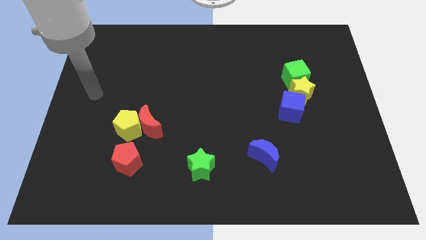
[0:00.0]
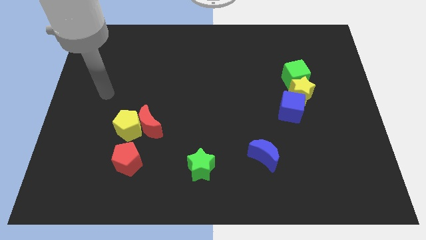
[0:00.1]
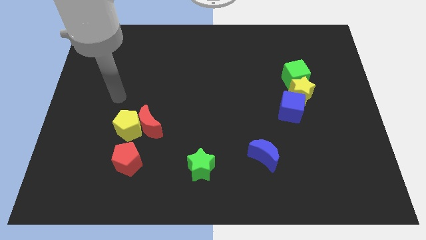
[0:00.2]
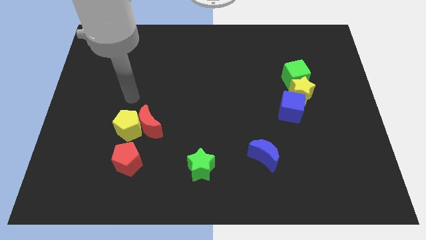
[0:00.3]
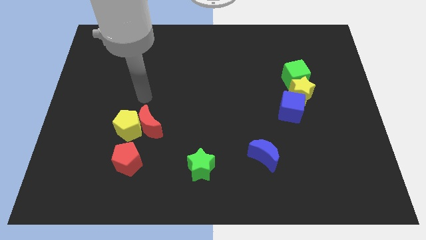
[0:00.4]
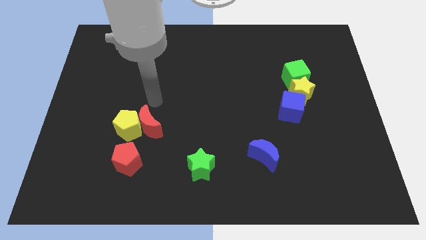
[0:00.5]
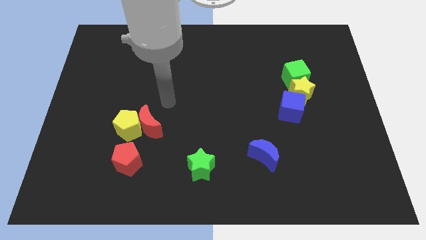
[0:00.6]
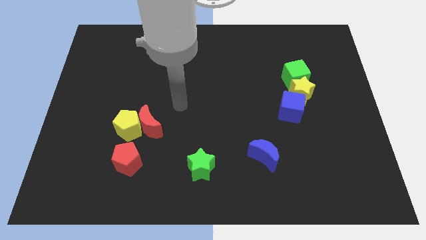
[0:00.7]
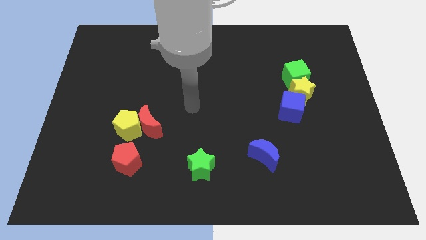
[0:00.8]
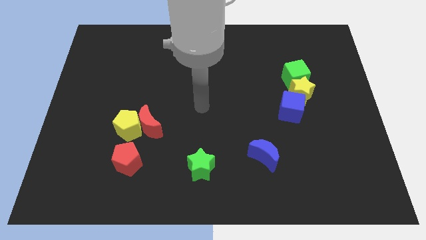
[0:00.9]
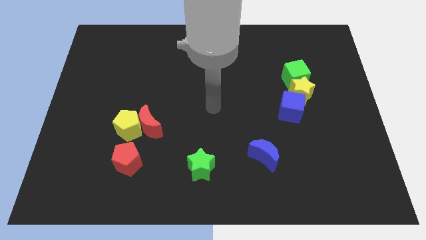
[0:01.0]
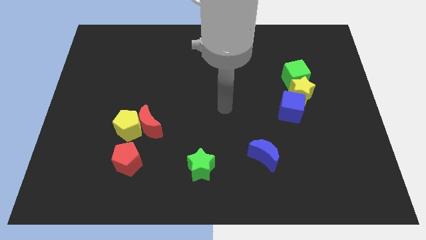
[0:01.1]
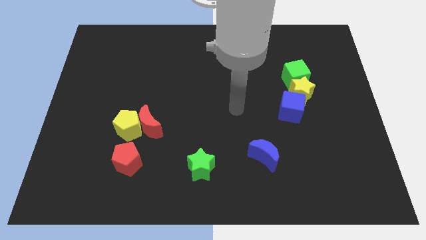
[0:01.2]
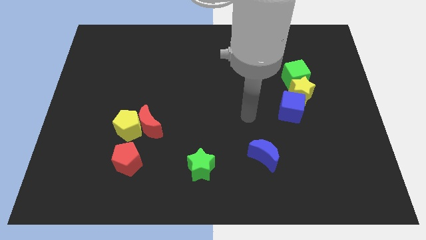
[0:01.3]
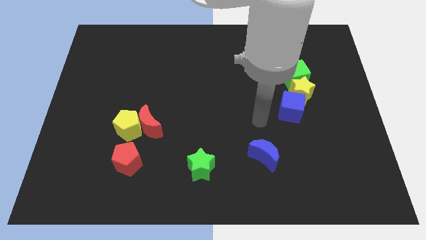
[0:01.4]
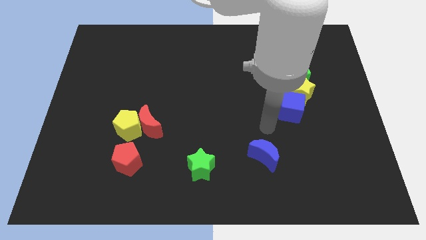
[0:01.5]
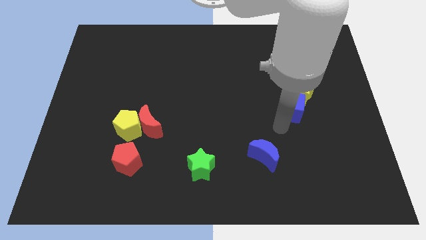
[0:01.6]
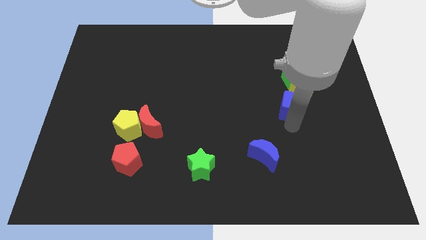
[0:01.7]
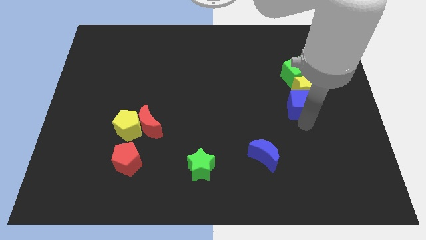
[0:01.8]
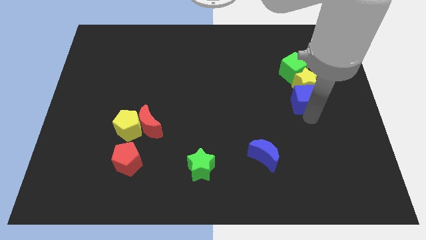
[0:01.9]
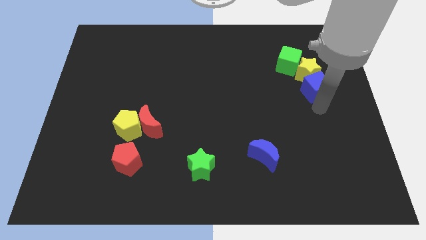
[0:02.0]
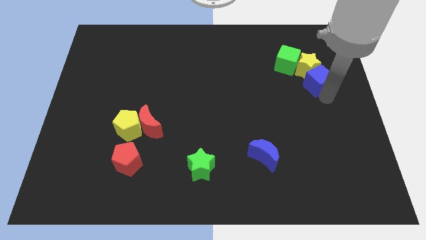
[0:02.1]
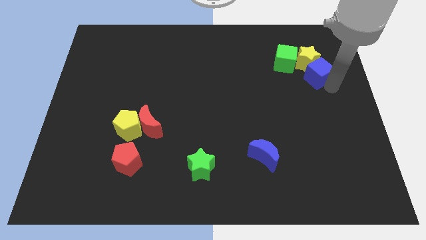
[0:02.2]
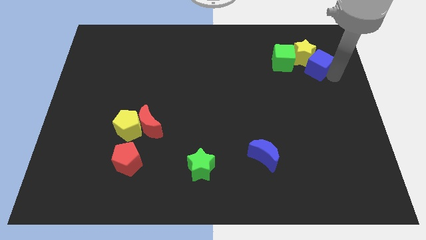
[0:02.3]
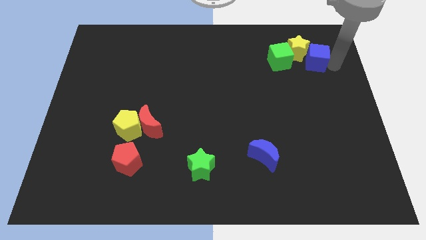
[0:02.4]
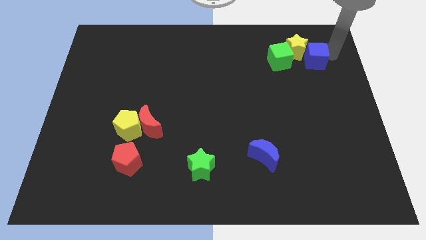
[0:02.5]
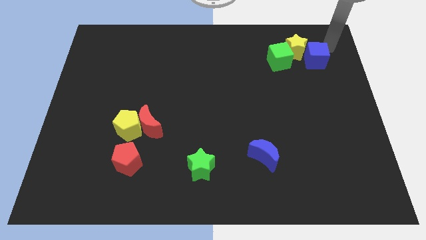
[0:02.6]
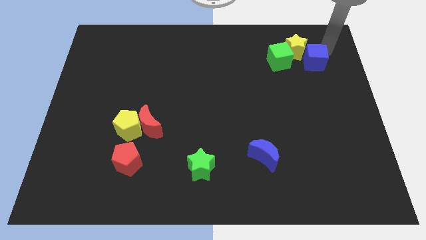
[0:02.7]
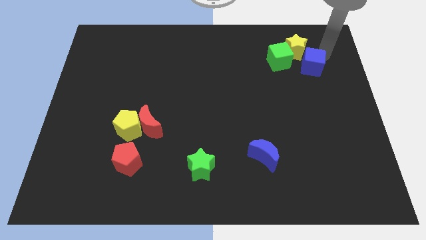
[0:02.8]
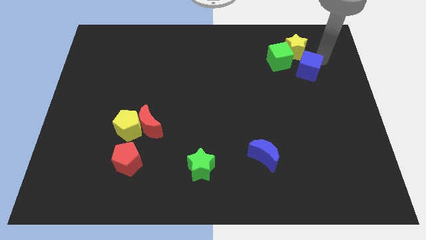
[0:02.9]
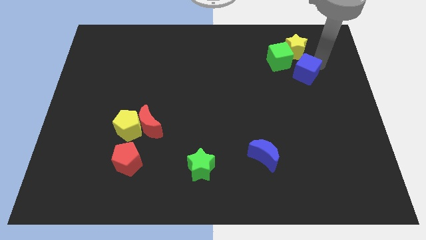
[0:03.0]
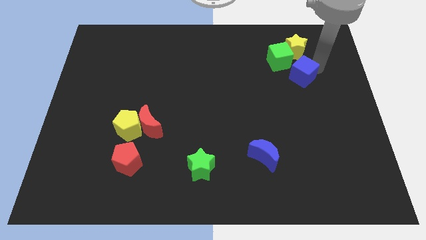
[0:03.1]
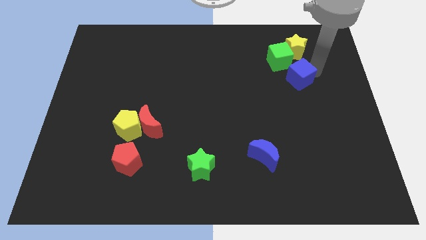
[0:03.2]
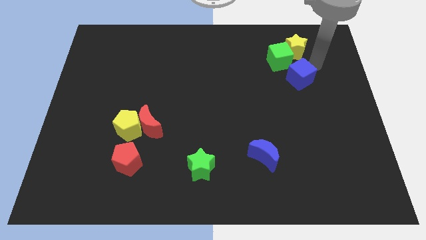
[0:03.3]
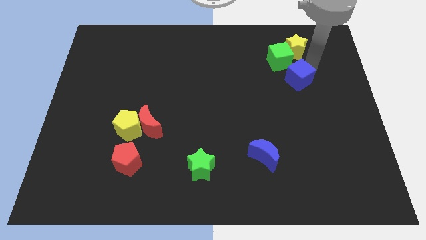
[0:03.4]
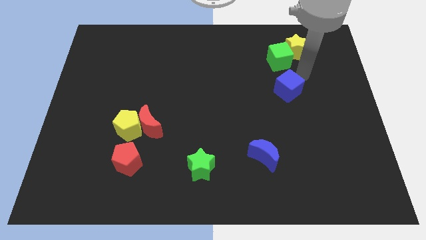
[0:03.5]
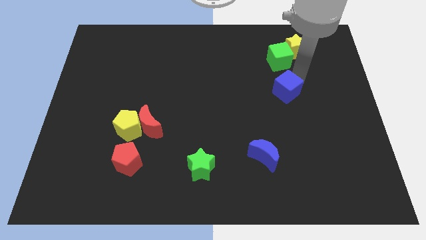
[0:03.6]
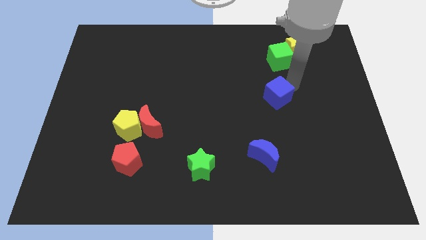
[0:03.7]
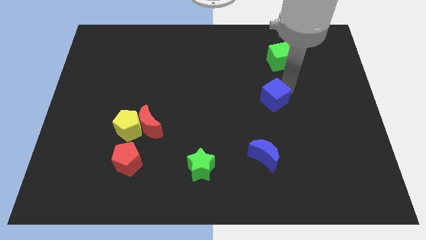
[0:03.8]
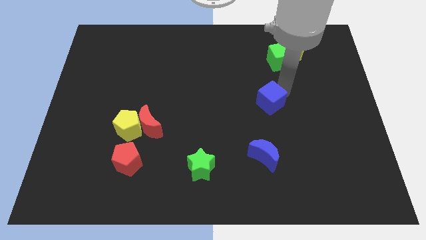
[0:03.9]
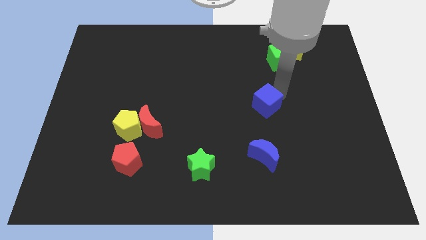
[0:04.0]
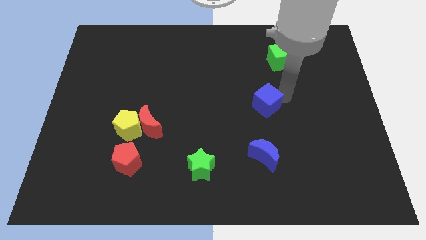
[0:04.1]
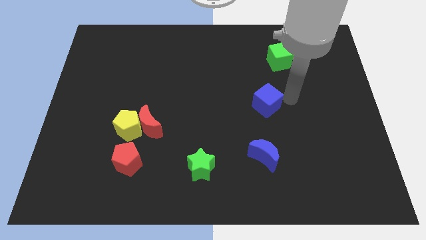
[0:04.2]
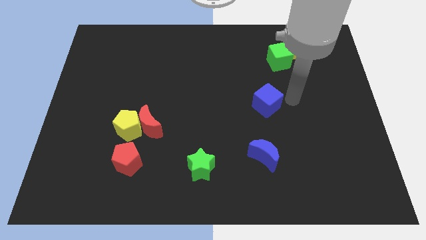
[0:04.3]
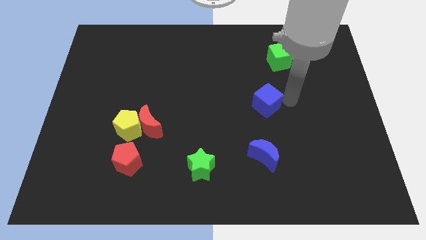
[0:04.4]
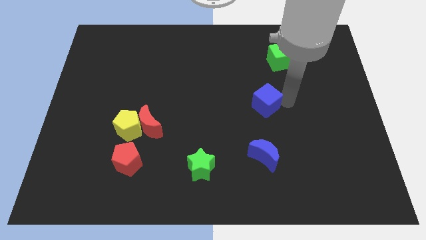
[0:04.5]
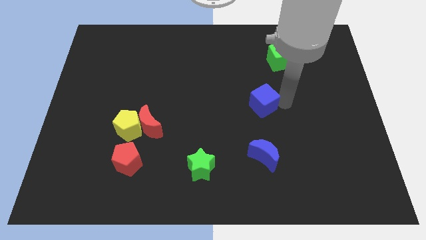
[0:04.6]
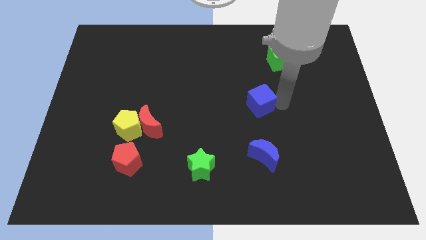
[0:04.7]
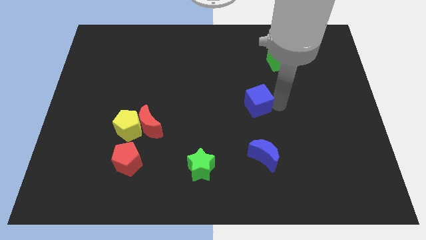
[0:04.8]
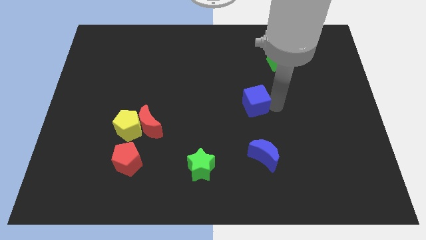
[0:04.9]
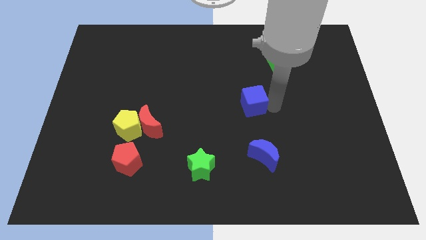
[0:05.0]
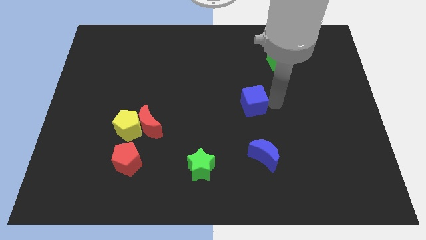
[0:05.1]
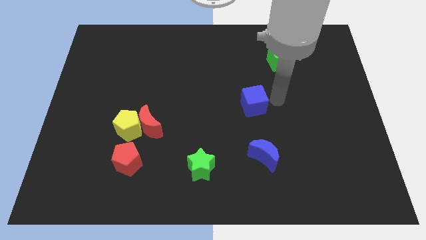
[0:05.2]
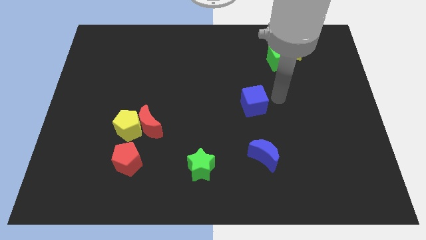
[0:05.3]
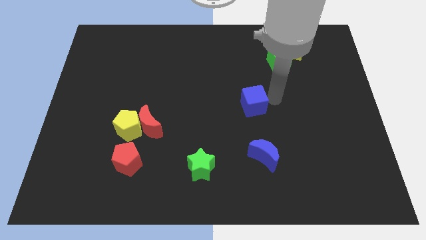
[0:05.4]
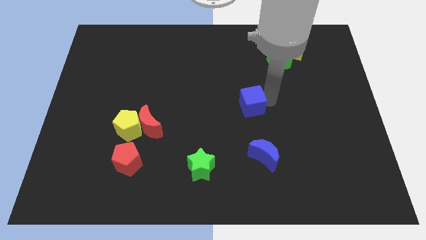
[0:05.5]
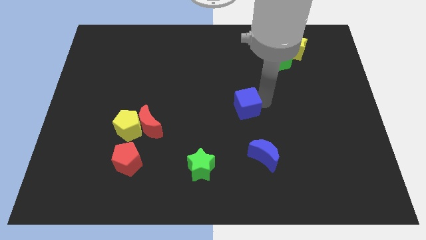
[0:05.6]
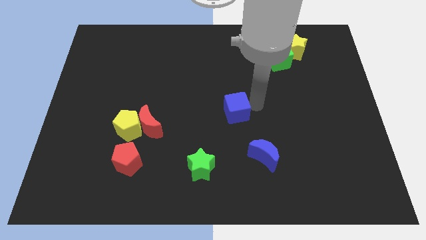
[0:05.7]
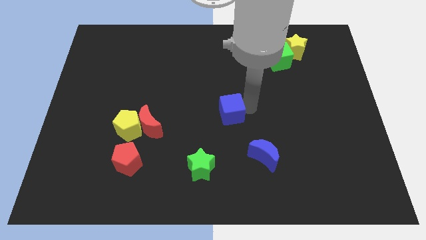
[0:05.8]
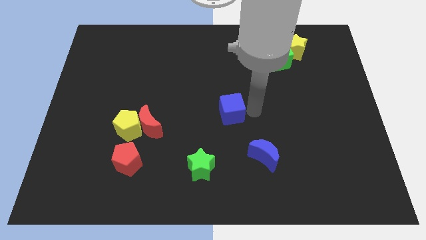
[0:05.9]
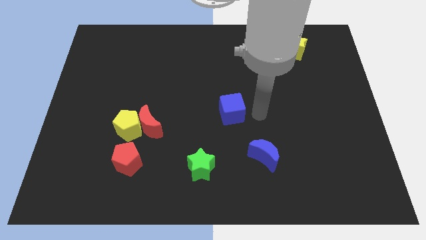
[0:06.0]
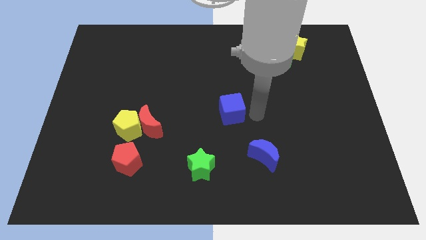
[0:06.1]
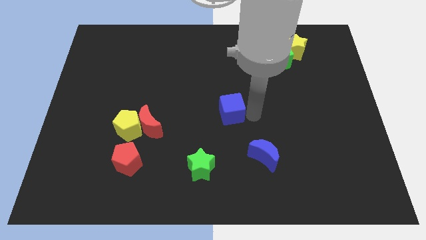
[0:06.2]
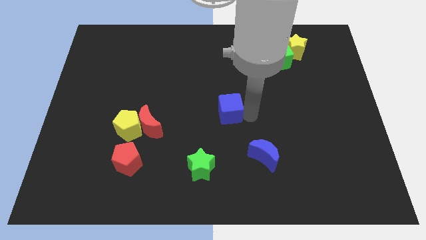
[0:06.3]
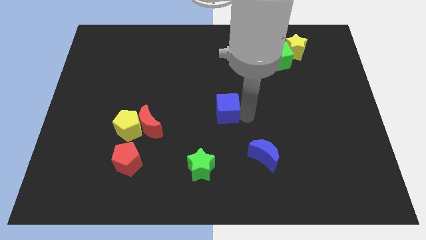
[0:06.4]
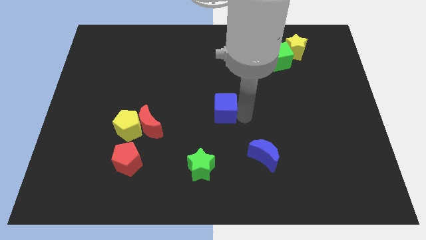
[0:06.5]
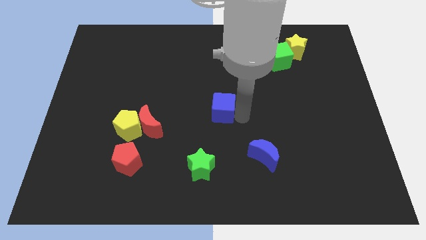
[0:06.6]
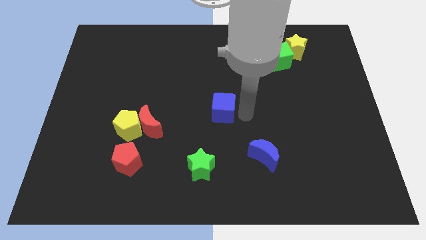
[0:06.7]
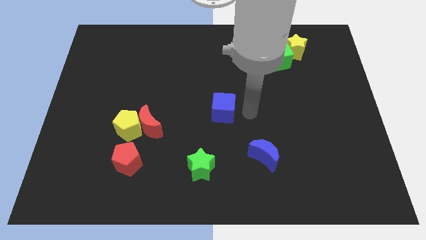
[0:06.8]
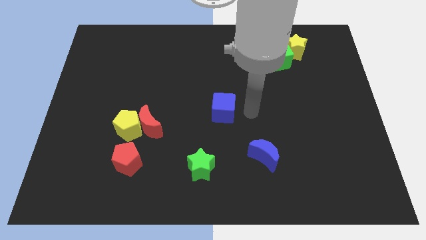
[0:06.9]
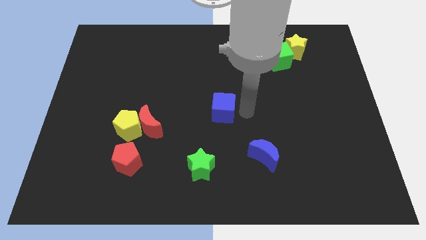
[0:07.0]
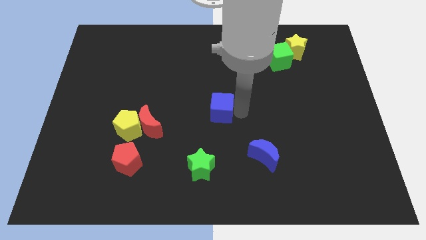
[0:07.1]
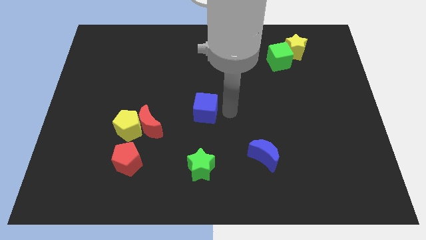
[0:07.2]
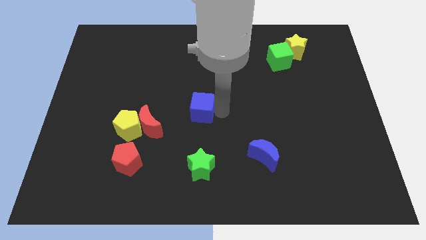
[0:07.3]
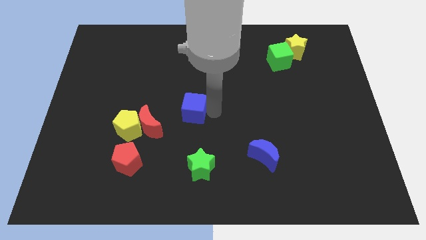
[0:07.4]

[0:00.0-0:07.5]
move the blue cube diagonally up and to the right of the red moon
